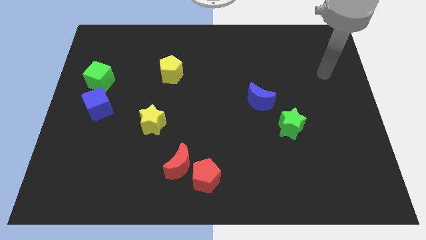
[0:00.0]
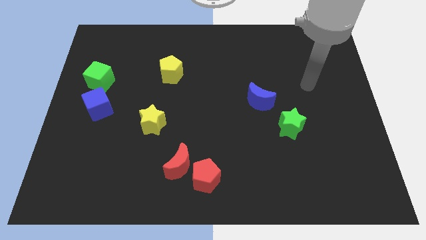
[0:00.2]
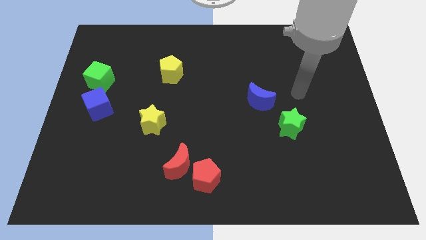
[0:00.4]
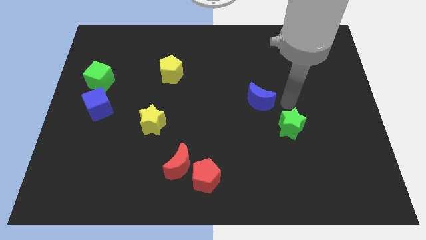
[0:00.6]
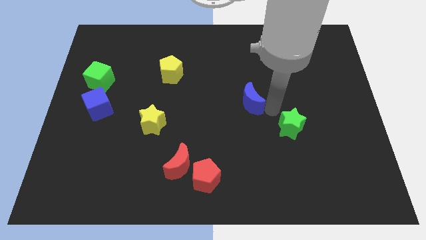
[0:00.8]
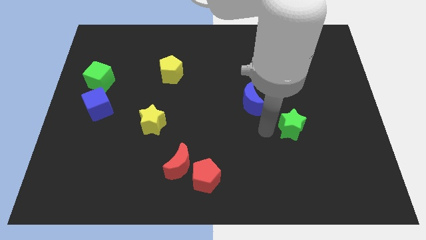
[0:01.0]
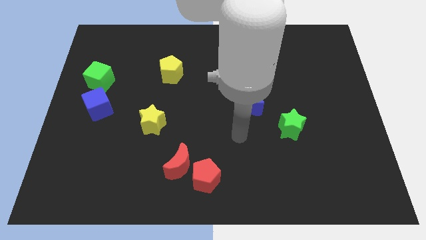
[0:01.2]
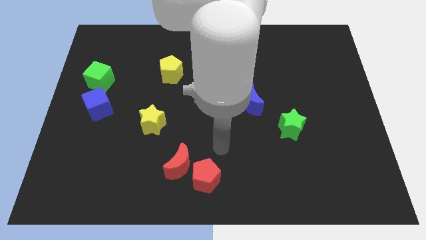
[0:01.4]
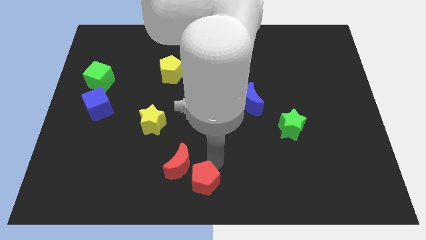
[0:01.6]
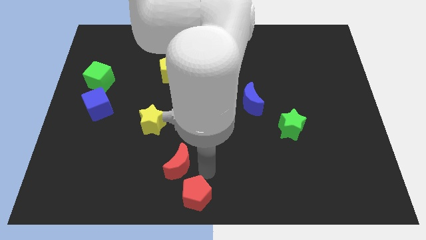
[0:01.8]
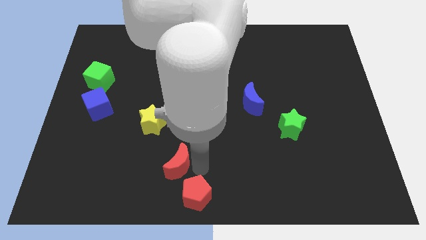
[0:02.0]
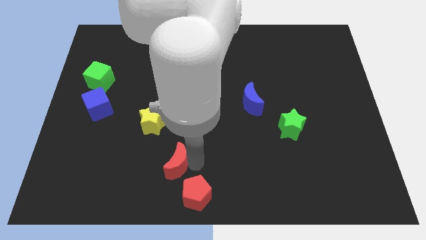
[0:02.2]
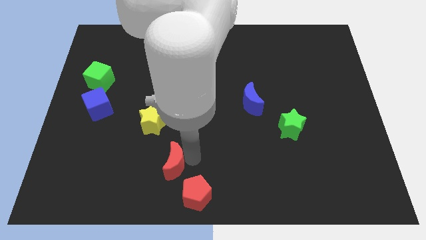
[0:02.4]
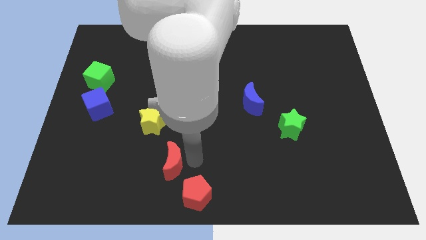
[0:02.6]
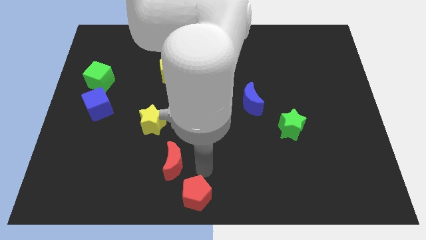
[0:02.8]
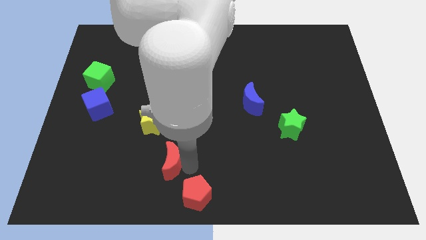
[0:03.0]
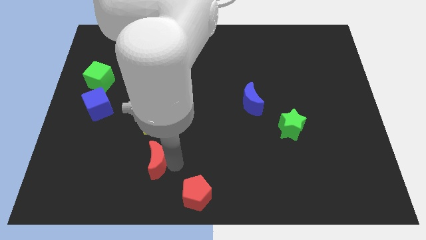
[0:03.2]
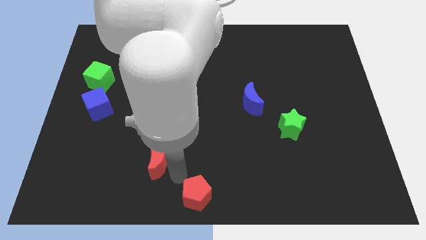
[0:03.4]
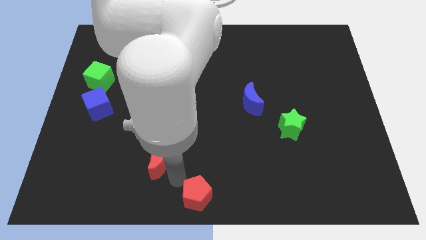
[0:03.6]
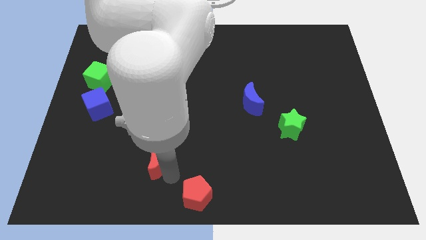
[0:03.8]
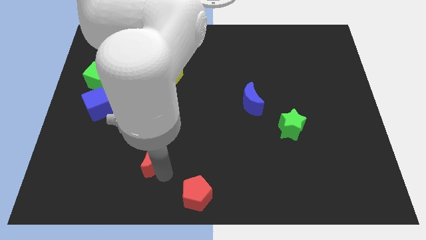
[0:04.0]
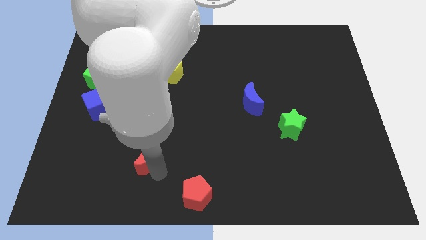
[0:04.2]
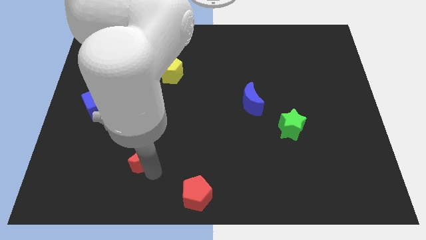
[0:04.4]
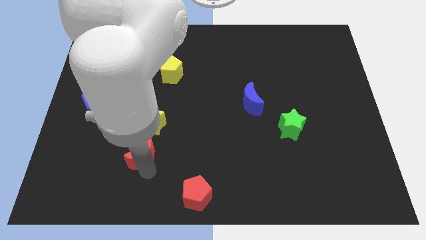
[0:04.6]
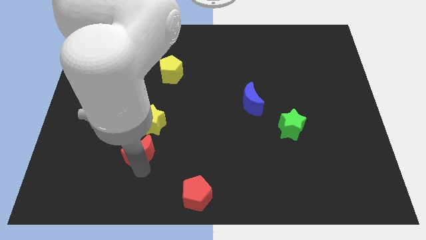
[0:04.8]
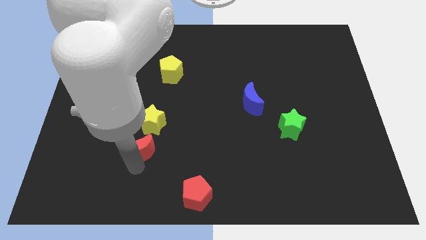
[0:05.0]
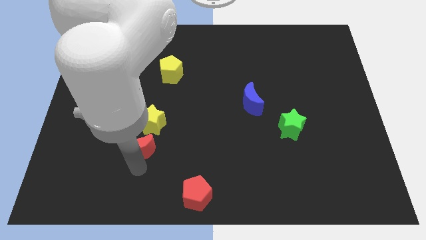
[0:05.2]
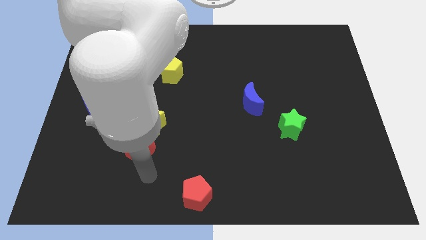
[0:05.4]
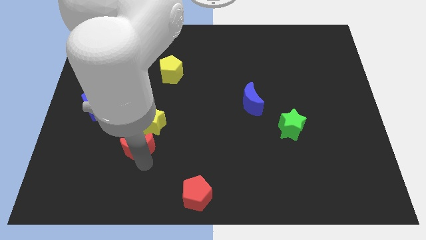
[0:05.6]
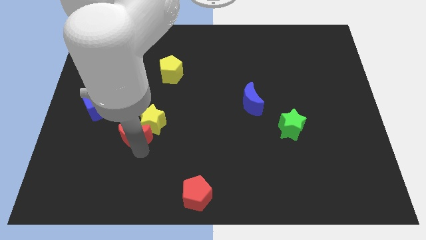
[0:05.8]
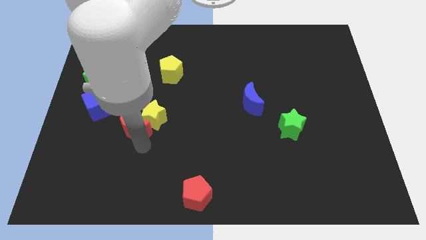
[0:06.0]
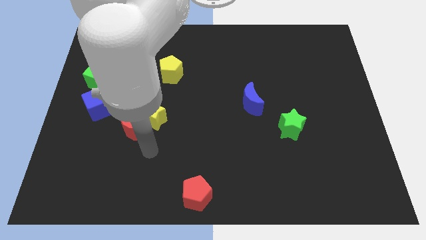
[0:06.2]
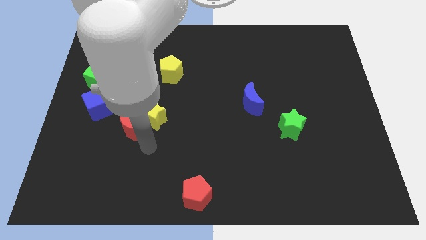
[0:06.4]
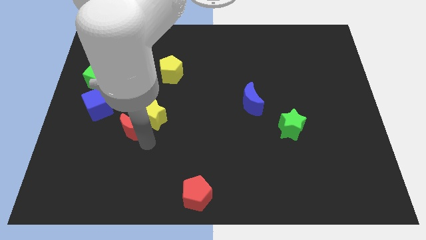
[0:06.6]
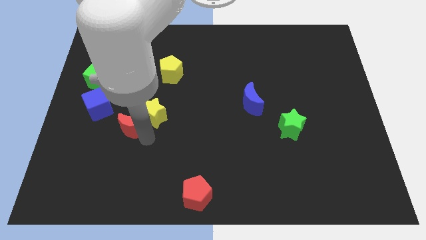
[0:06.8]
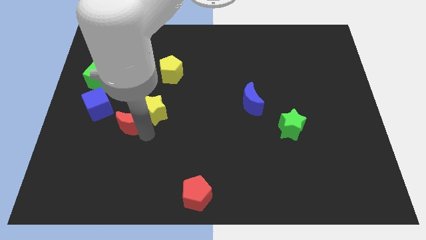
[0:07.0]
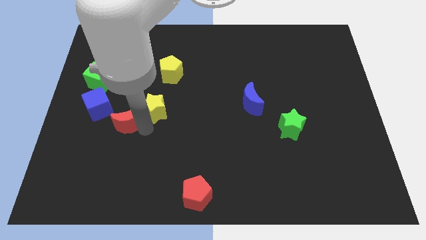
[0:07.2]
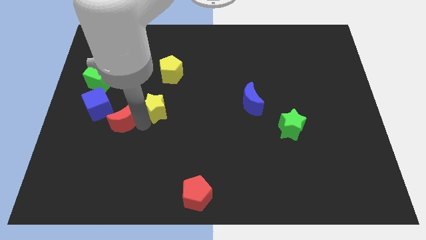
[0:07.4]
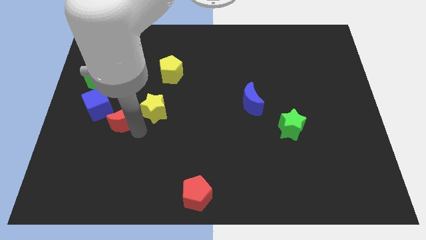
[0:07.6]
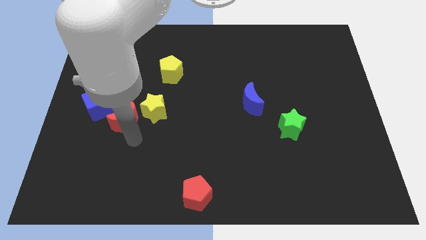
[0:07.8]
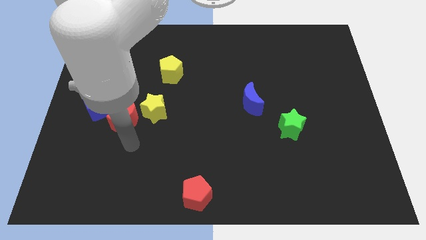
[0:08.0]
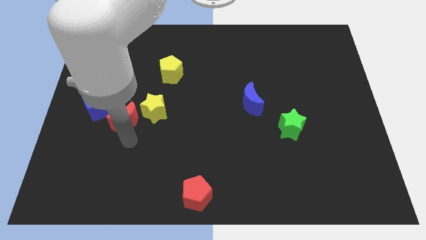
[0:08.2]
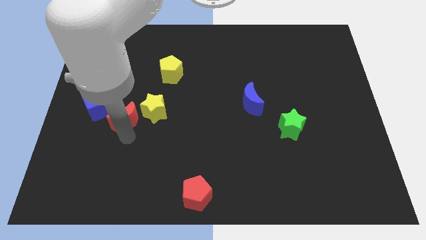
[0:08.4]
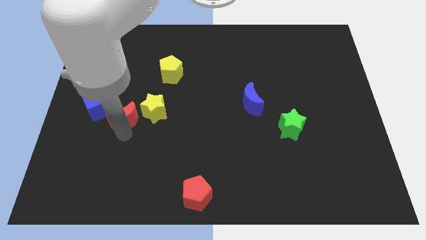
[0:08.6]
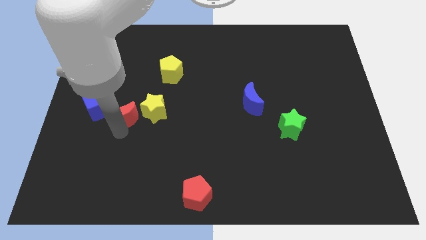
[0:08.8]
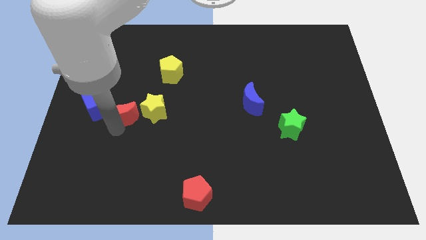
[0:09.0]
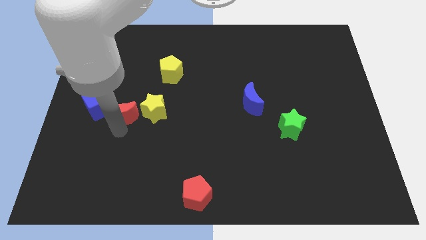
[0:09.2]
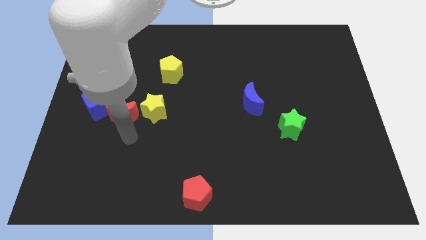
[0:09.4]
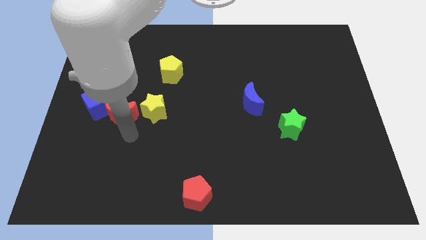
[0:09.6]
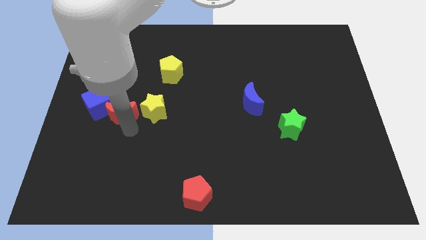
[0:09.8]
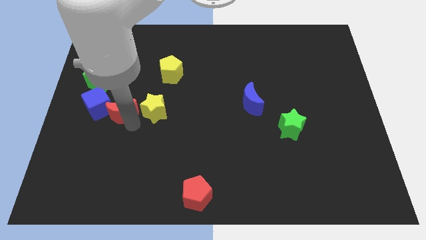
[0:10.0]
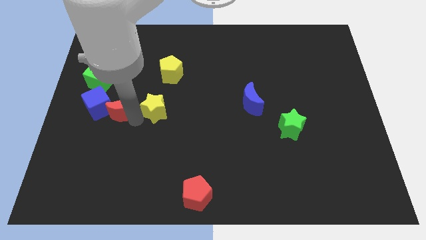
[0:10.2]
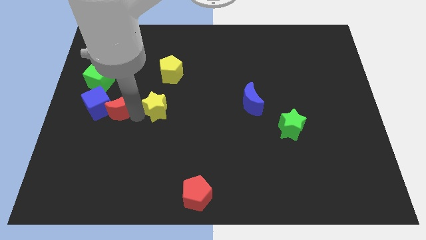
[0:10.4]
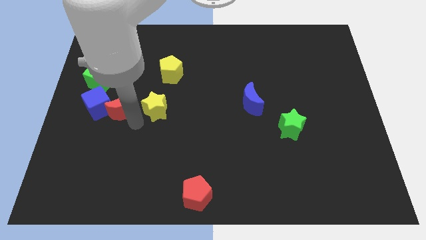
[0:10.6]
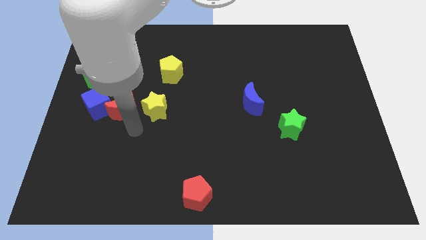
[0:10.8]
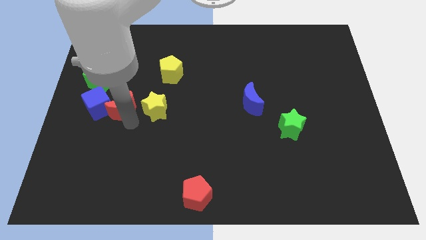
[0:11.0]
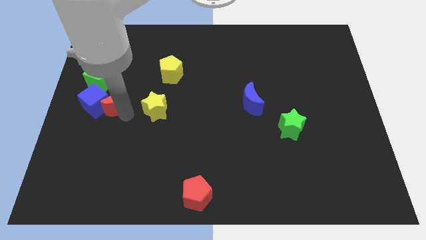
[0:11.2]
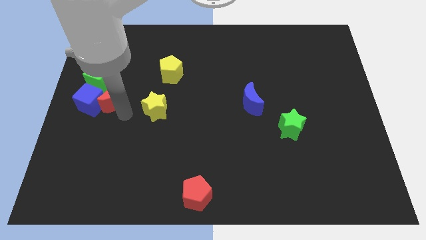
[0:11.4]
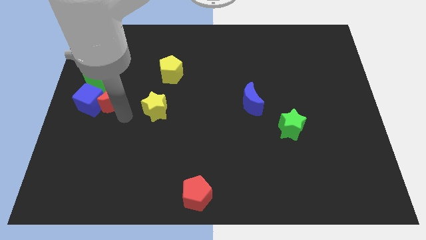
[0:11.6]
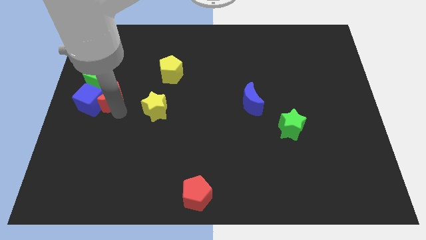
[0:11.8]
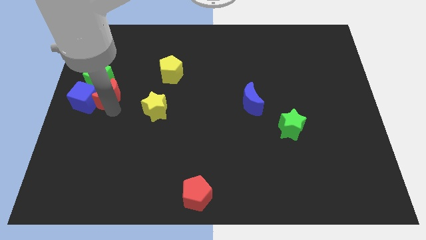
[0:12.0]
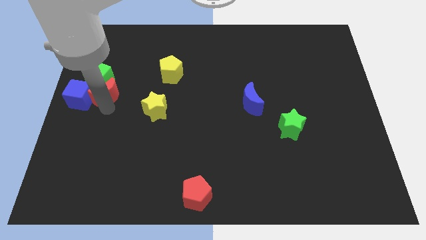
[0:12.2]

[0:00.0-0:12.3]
slide the red moon close to the green cube

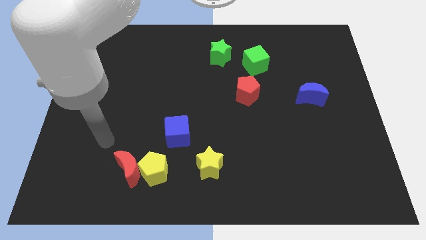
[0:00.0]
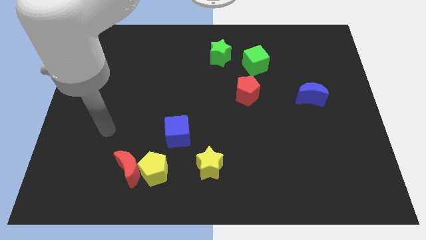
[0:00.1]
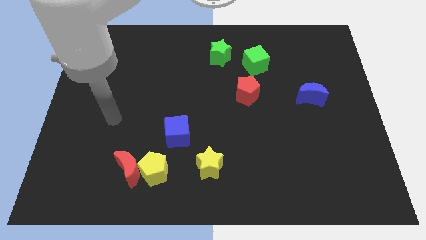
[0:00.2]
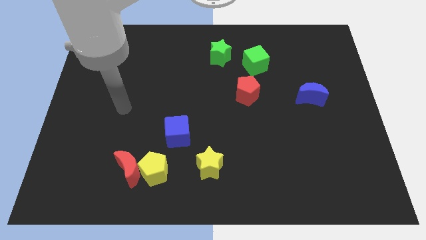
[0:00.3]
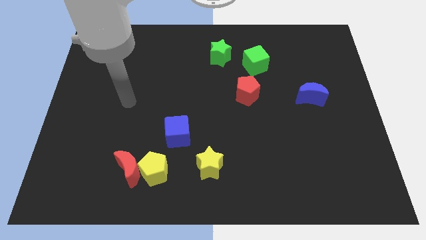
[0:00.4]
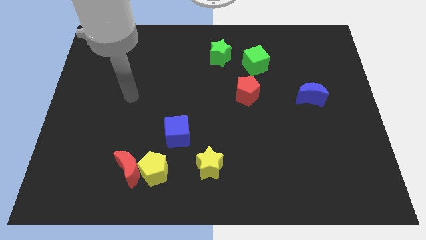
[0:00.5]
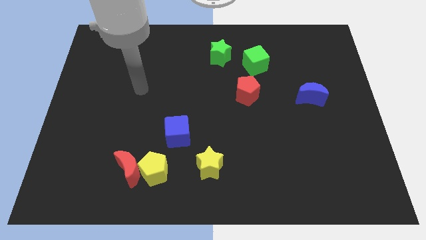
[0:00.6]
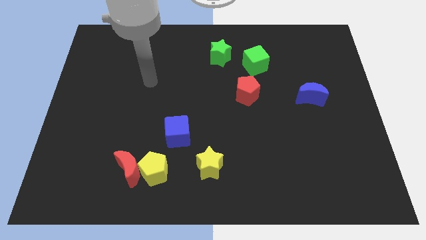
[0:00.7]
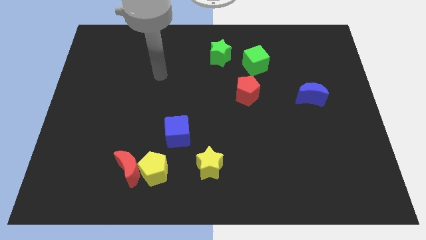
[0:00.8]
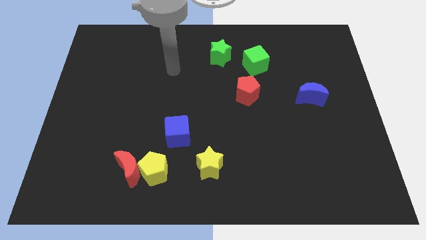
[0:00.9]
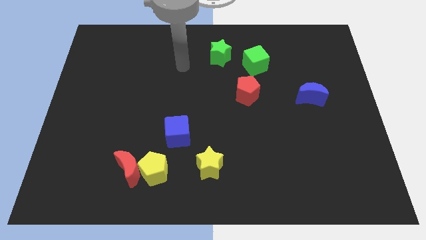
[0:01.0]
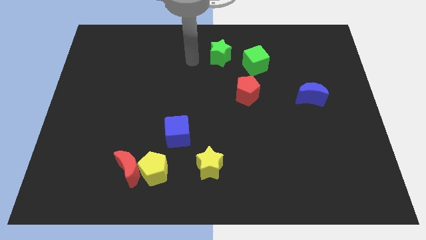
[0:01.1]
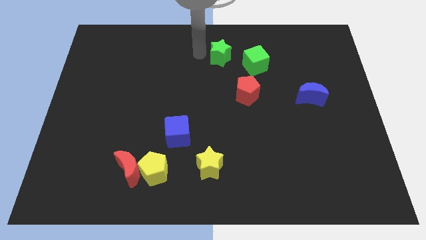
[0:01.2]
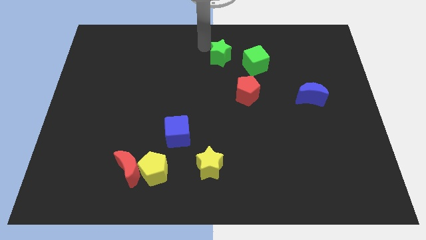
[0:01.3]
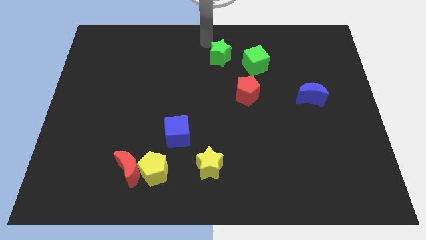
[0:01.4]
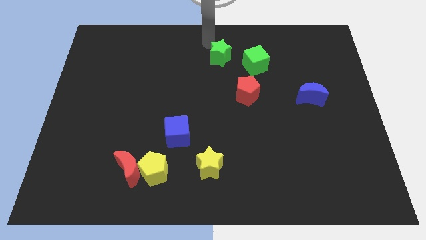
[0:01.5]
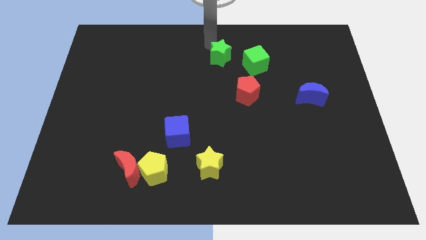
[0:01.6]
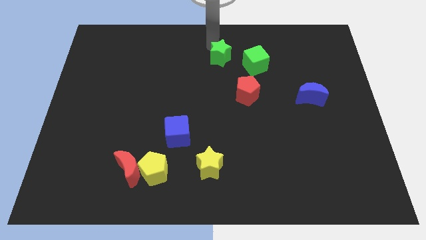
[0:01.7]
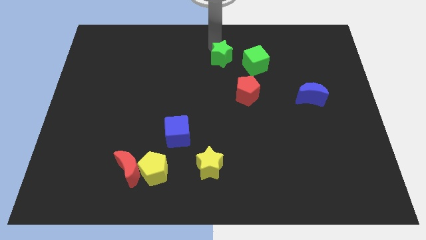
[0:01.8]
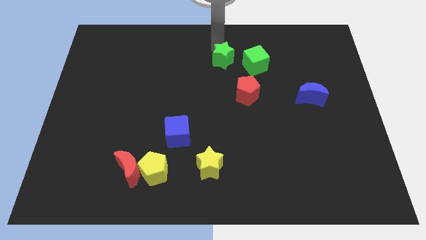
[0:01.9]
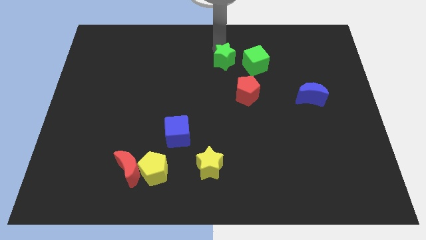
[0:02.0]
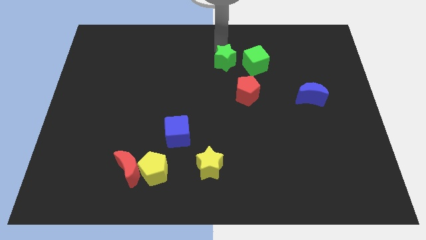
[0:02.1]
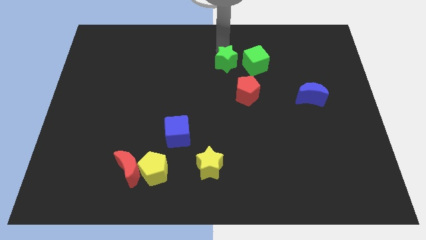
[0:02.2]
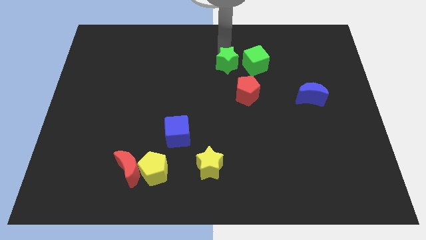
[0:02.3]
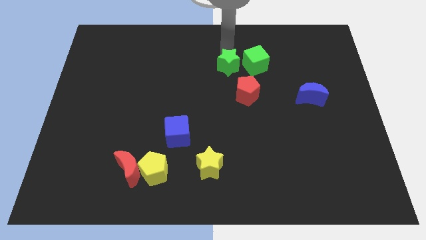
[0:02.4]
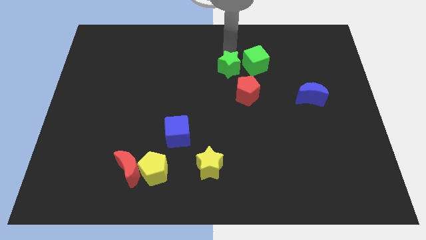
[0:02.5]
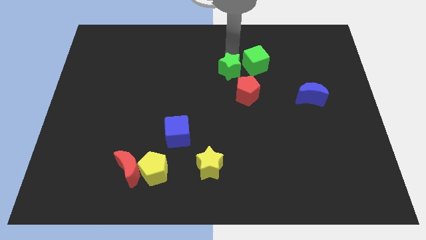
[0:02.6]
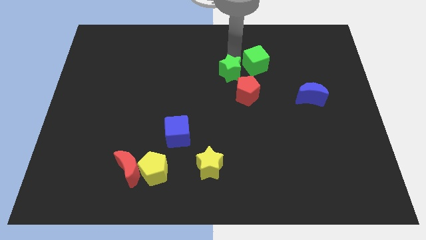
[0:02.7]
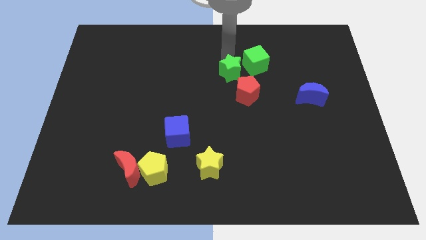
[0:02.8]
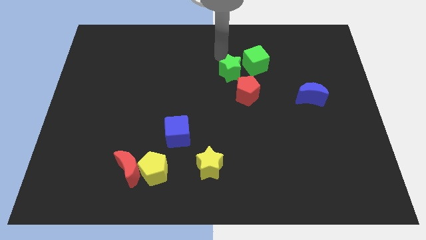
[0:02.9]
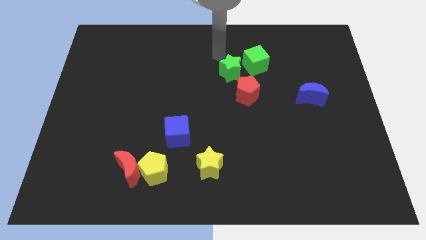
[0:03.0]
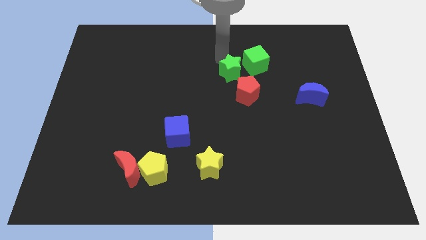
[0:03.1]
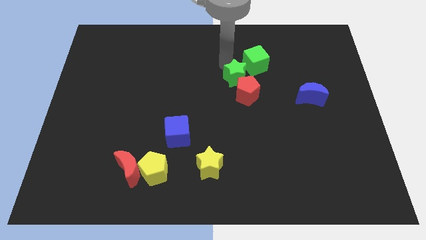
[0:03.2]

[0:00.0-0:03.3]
move the green star towards the red pentagon
